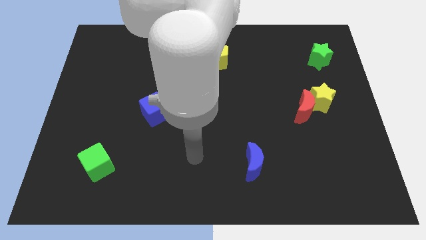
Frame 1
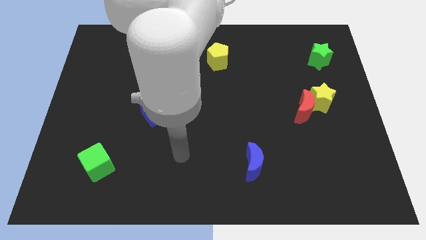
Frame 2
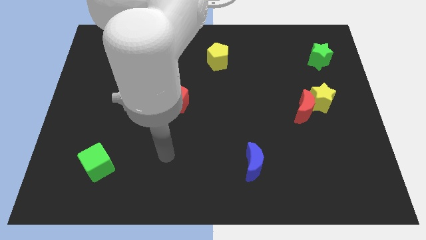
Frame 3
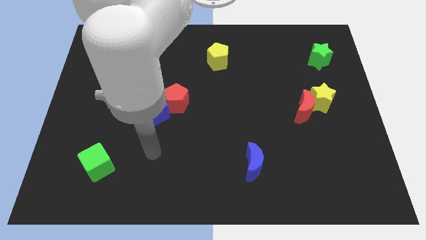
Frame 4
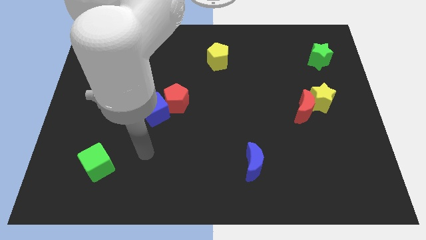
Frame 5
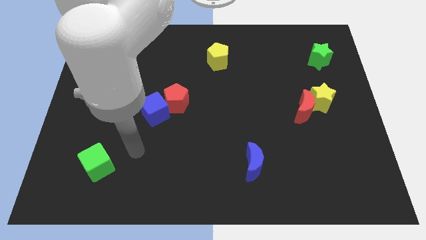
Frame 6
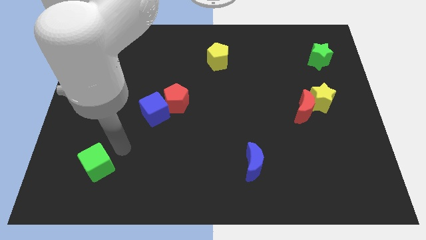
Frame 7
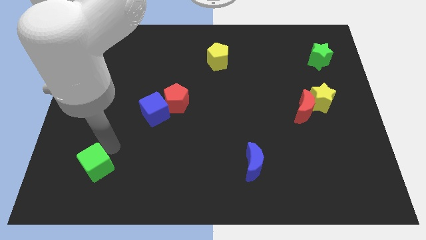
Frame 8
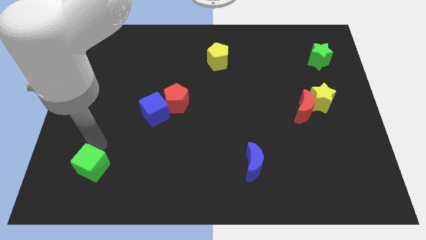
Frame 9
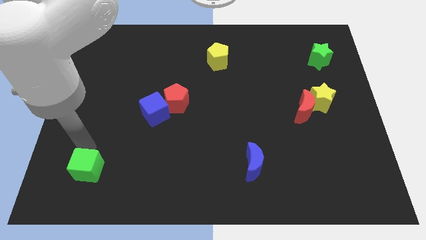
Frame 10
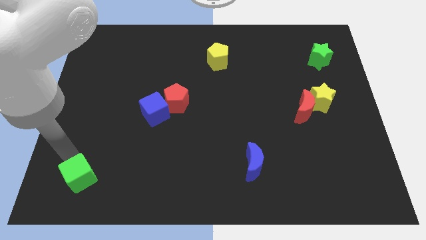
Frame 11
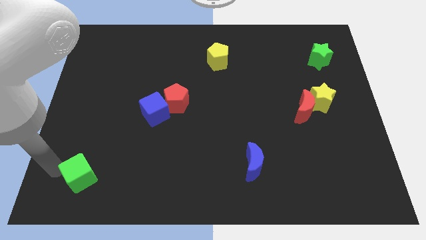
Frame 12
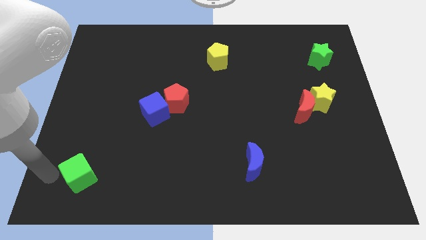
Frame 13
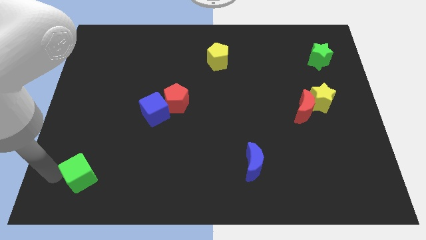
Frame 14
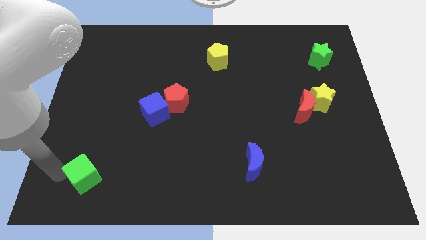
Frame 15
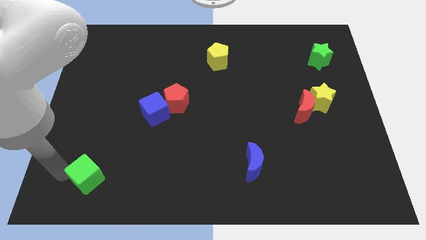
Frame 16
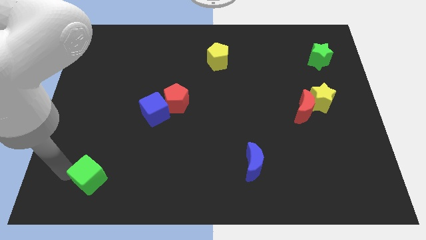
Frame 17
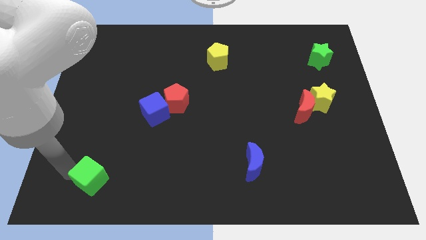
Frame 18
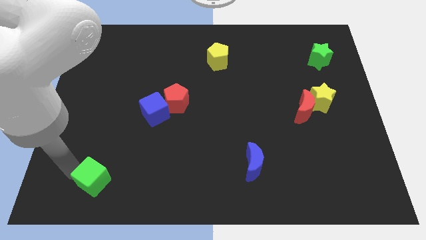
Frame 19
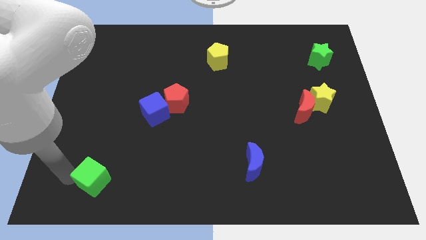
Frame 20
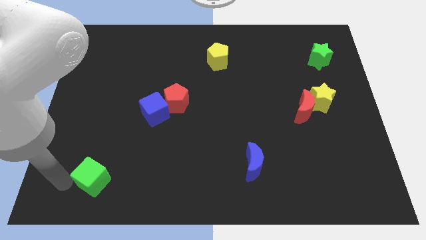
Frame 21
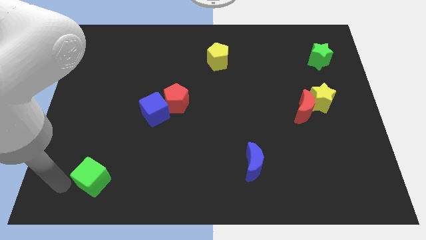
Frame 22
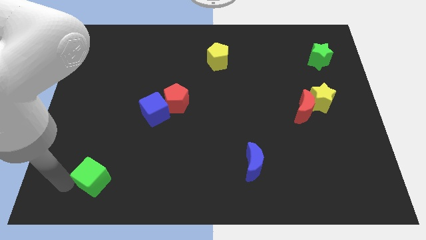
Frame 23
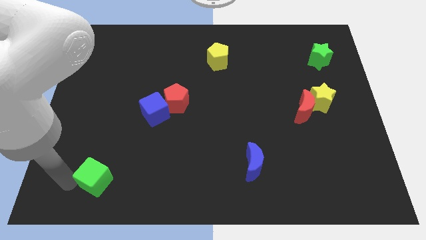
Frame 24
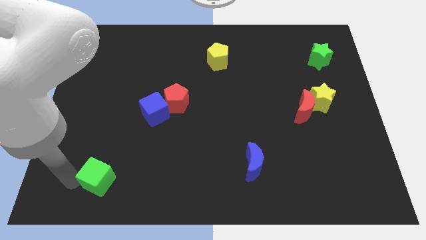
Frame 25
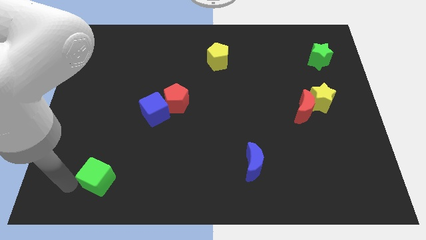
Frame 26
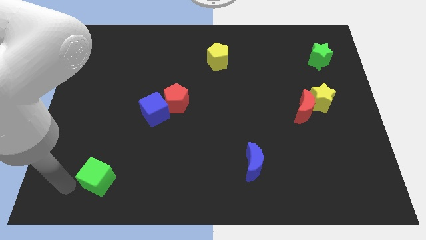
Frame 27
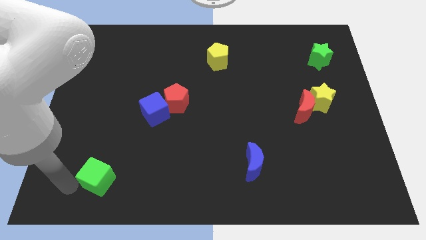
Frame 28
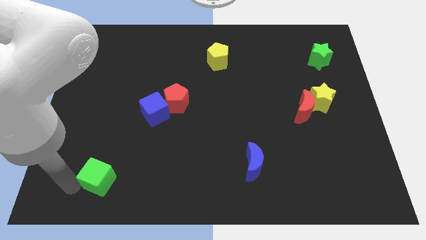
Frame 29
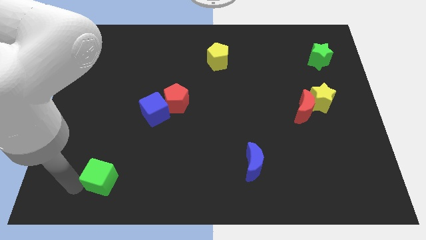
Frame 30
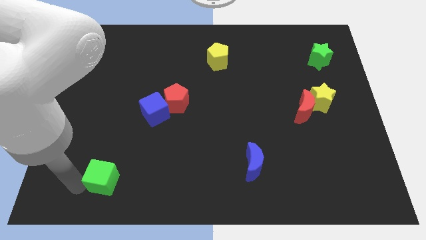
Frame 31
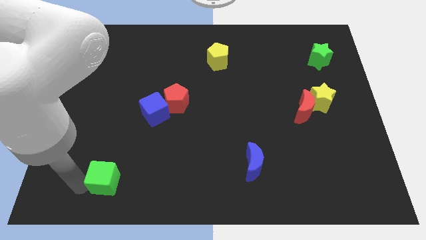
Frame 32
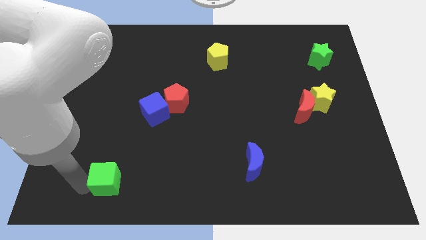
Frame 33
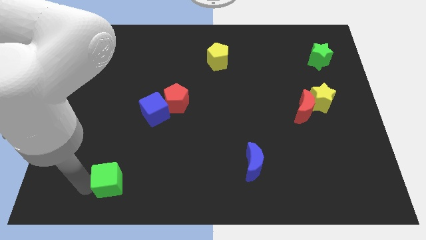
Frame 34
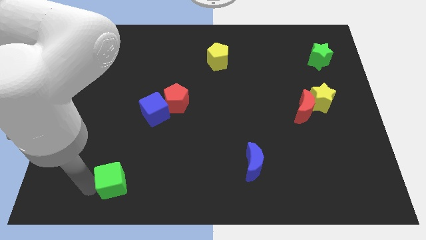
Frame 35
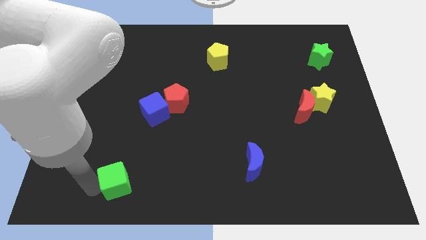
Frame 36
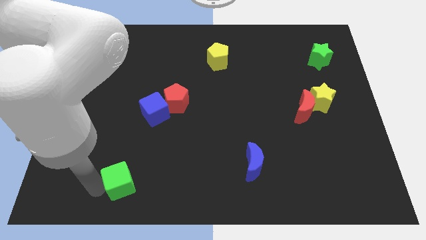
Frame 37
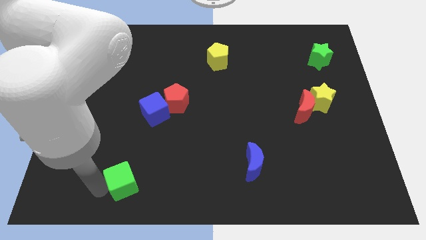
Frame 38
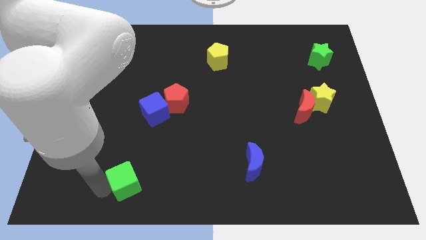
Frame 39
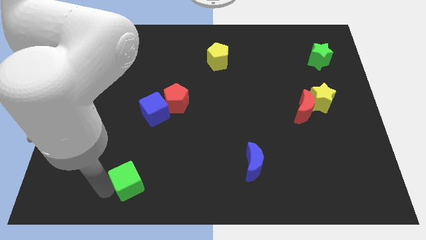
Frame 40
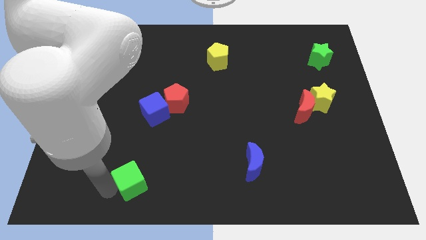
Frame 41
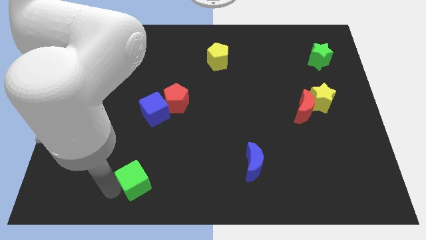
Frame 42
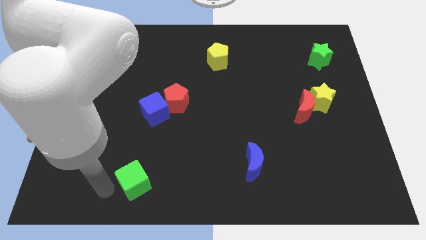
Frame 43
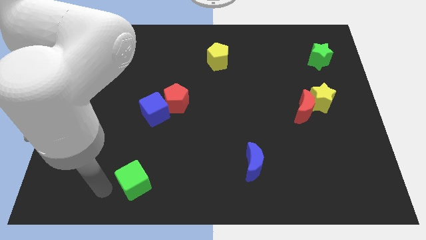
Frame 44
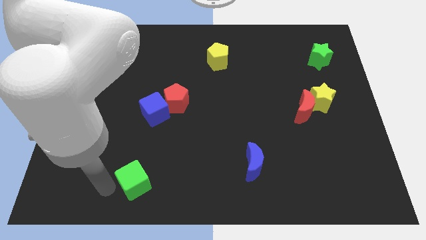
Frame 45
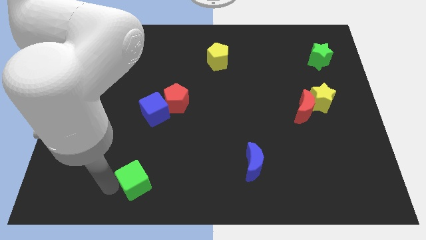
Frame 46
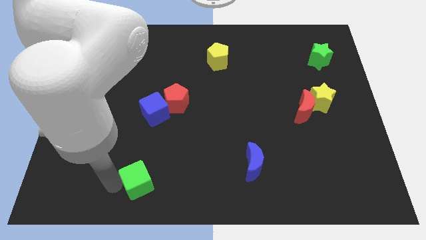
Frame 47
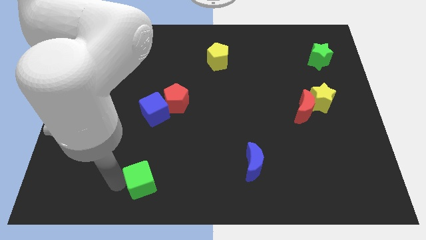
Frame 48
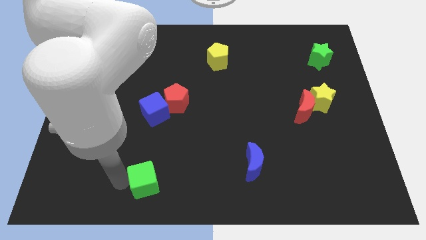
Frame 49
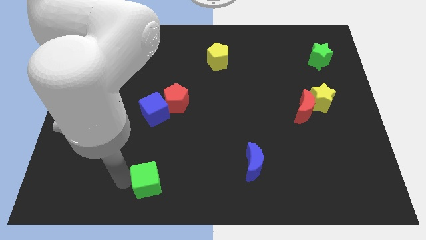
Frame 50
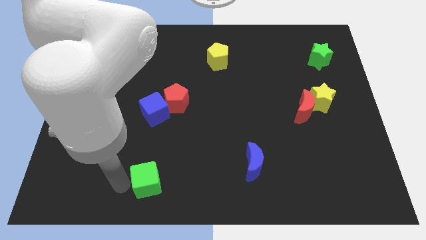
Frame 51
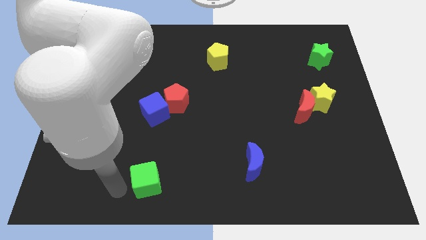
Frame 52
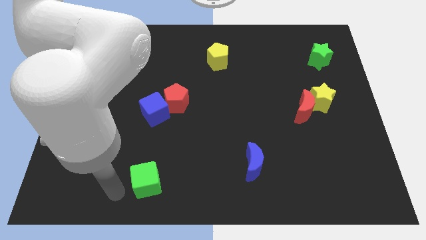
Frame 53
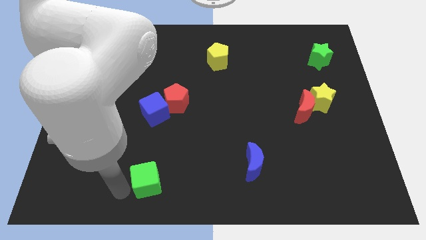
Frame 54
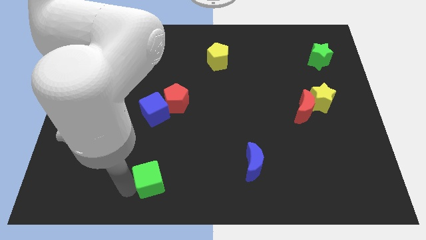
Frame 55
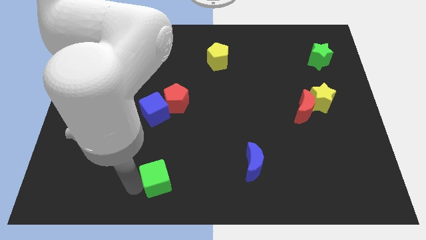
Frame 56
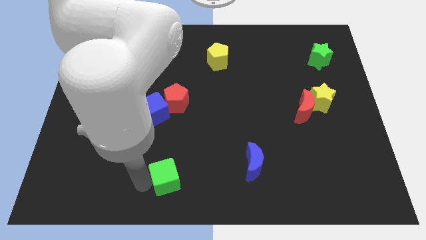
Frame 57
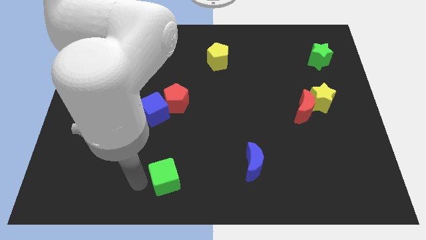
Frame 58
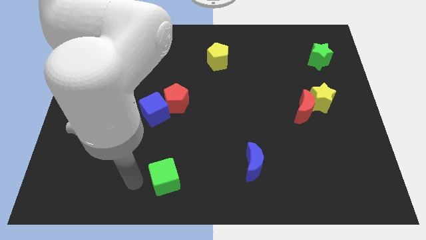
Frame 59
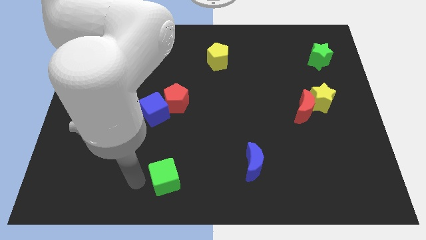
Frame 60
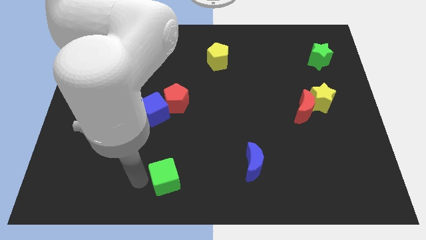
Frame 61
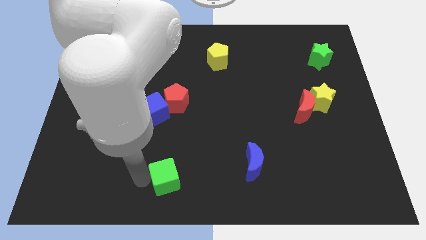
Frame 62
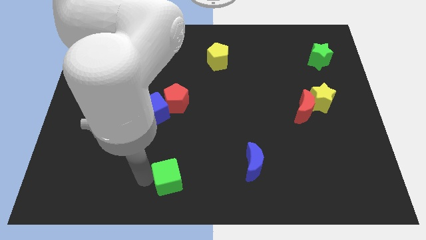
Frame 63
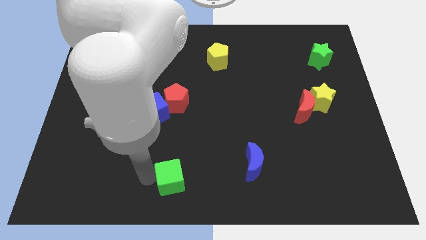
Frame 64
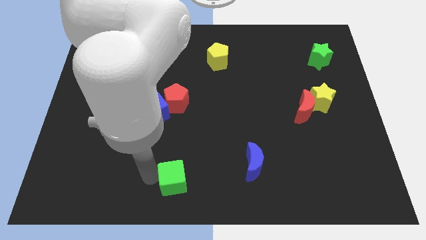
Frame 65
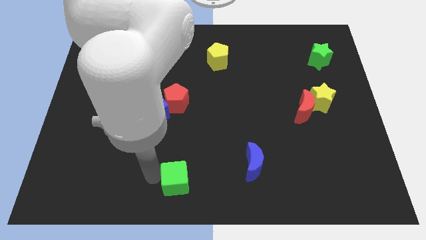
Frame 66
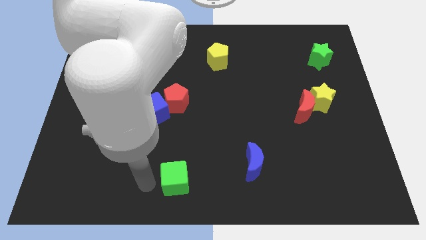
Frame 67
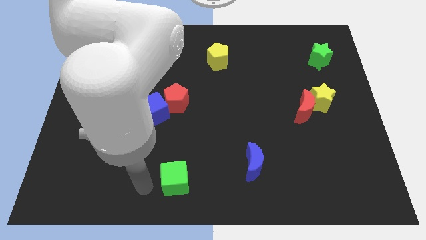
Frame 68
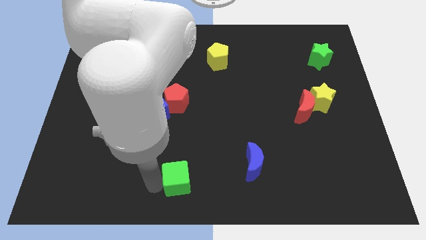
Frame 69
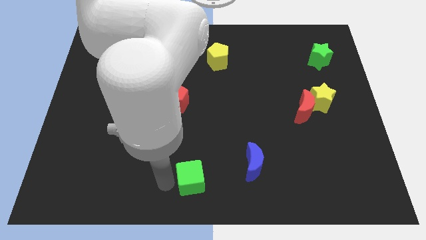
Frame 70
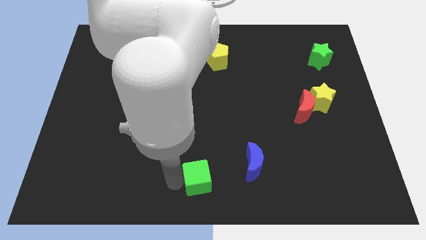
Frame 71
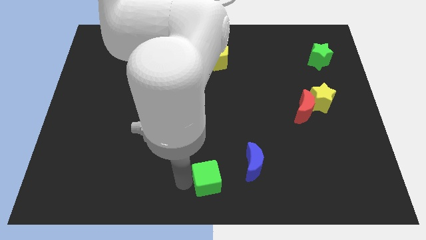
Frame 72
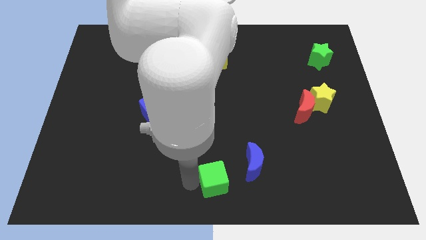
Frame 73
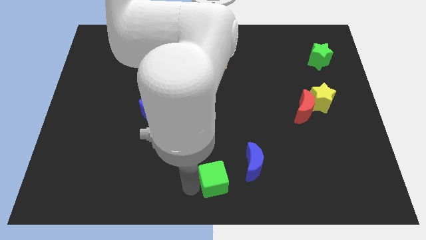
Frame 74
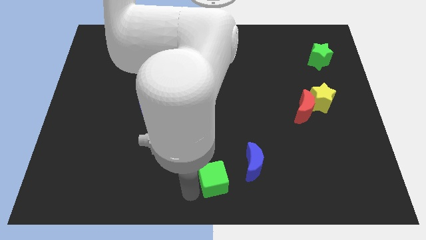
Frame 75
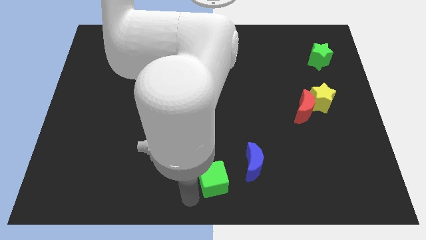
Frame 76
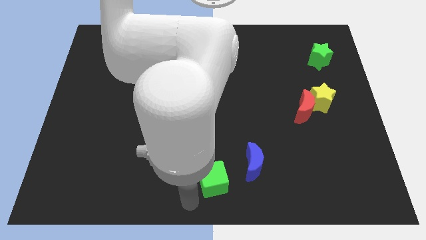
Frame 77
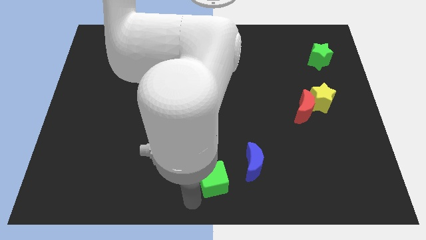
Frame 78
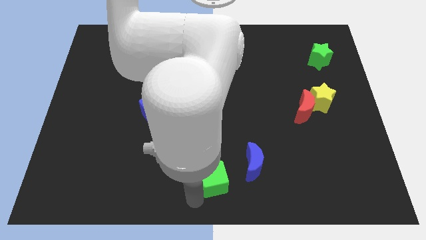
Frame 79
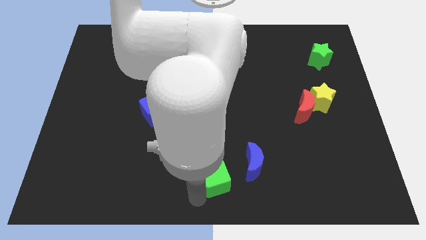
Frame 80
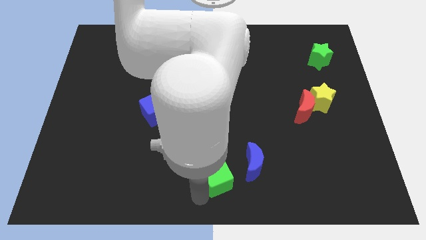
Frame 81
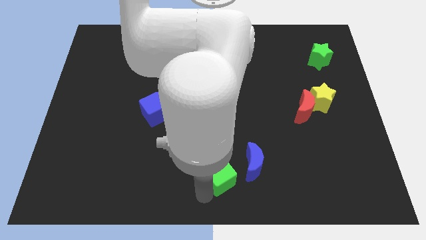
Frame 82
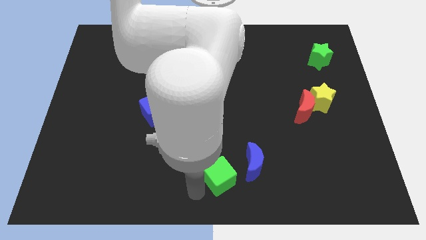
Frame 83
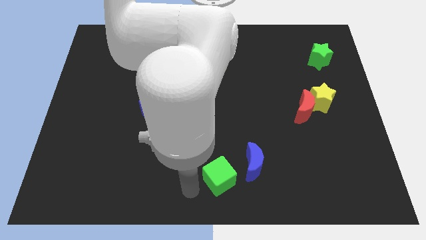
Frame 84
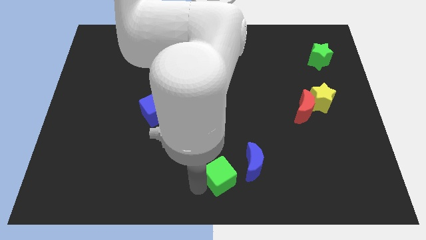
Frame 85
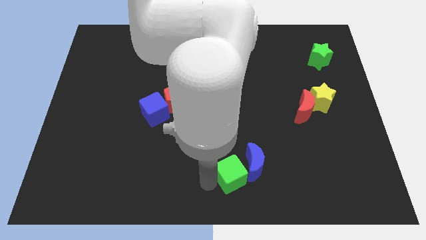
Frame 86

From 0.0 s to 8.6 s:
slide the green cube next to the blue moon
